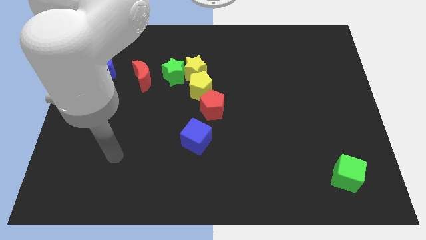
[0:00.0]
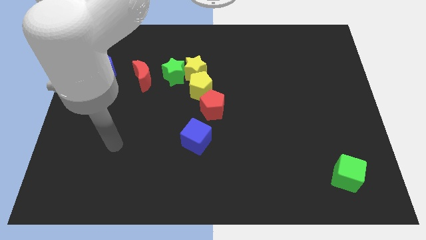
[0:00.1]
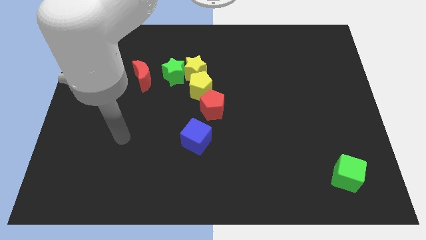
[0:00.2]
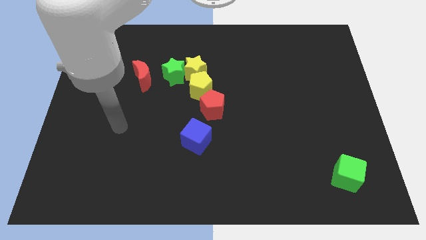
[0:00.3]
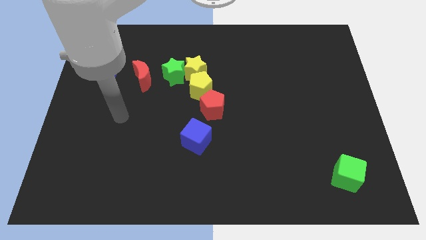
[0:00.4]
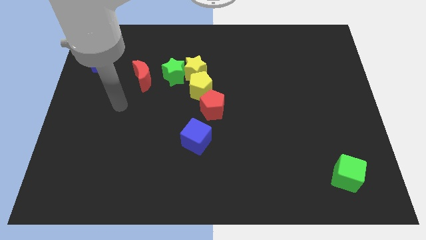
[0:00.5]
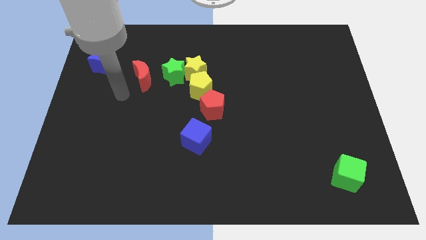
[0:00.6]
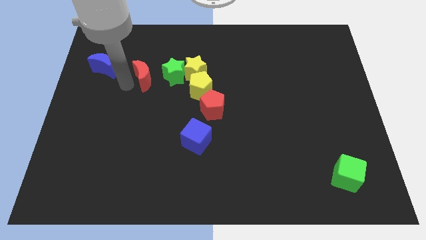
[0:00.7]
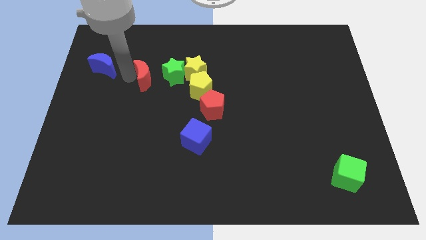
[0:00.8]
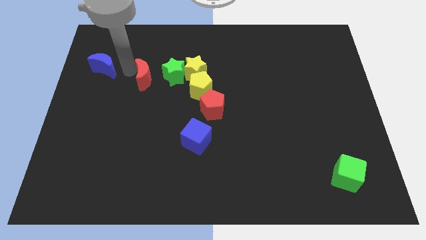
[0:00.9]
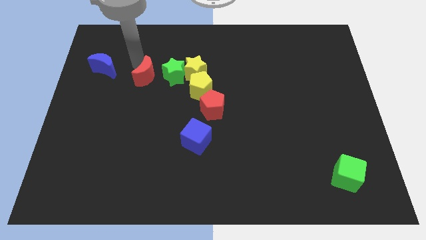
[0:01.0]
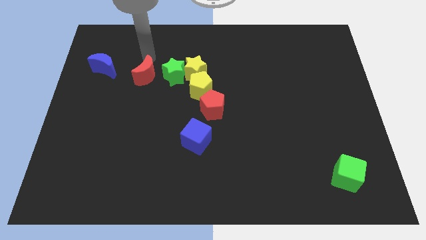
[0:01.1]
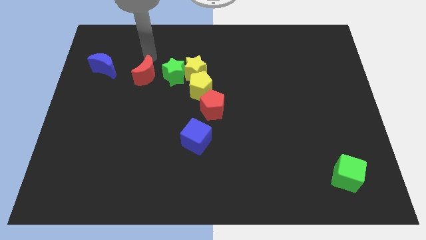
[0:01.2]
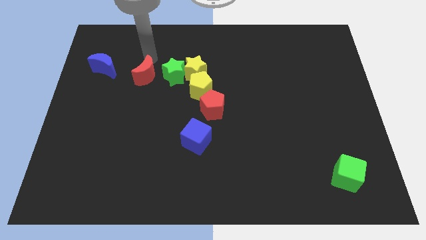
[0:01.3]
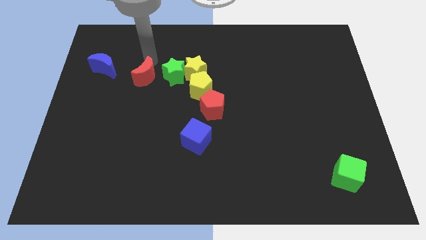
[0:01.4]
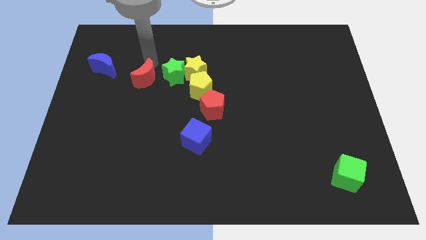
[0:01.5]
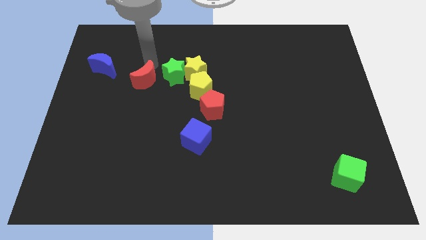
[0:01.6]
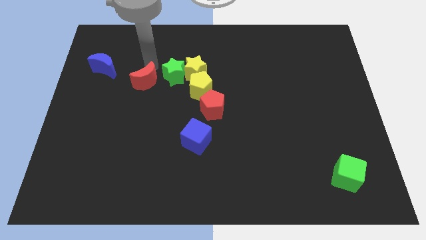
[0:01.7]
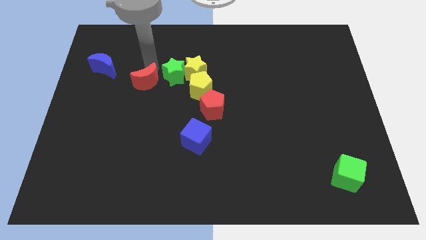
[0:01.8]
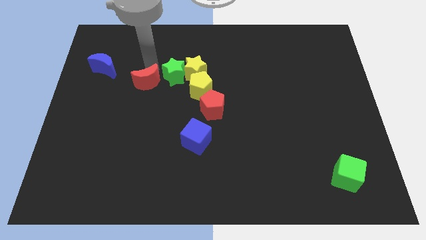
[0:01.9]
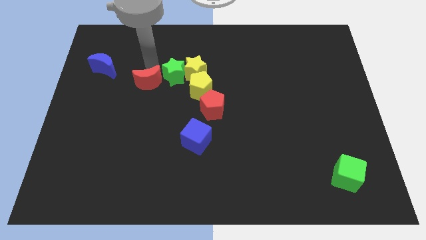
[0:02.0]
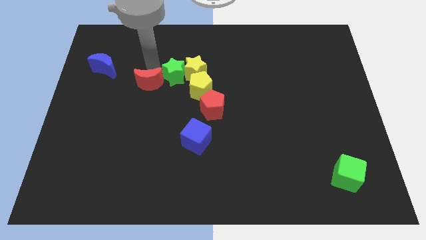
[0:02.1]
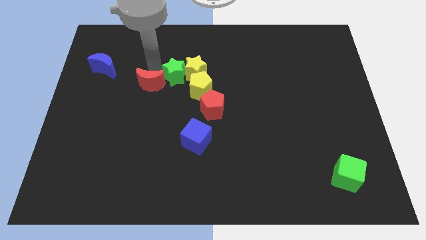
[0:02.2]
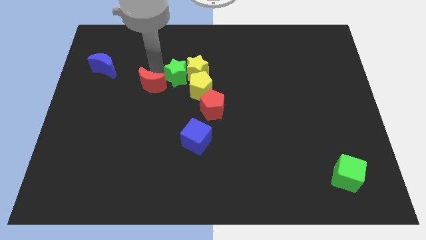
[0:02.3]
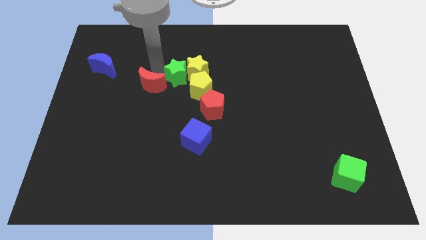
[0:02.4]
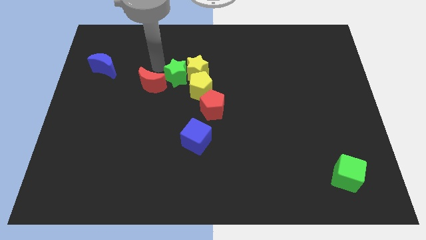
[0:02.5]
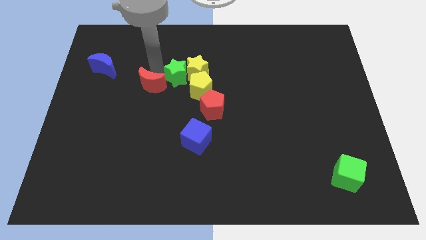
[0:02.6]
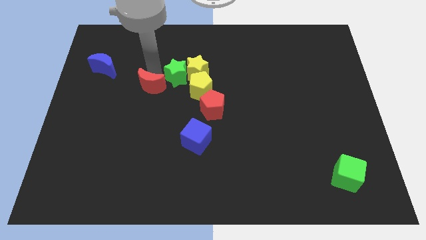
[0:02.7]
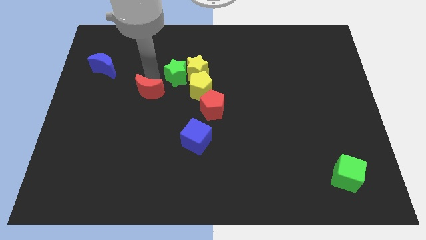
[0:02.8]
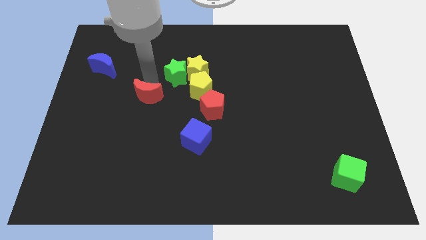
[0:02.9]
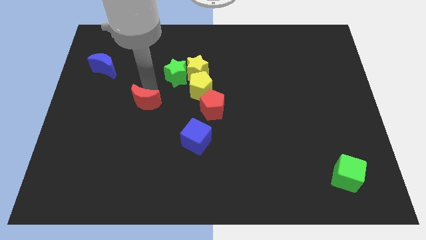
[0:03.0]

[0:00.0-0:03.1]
slightly push the red moon downwards

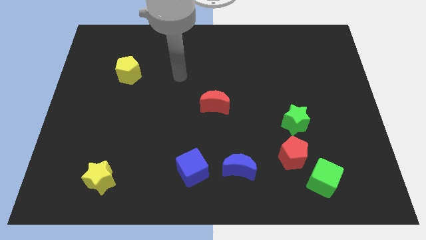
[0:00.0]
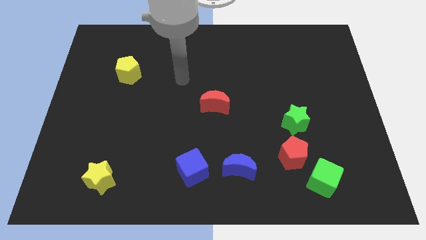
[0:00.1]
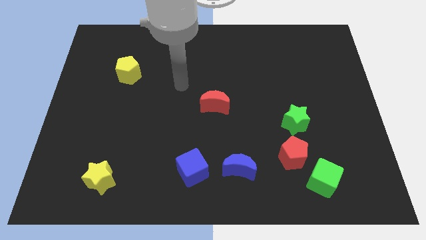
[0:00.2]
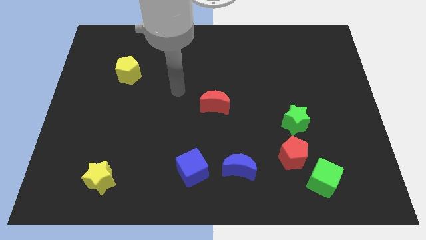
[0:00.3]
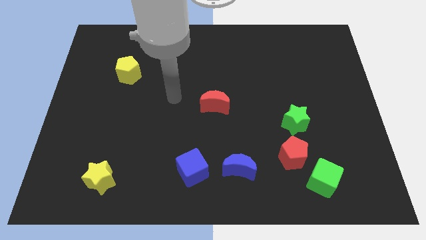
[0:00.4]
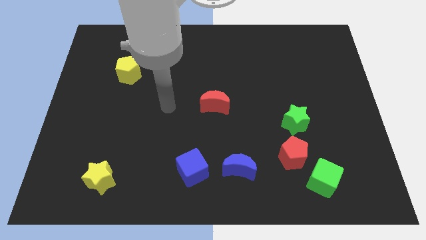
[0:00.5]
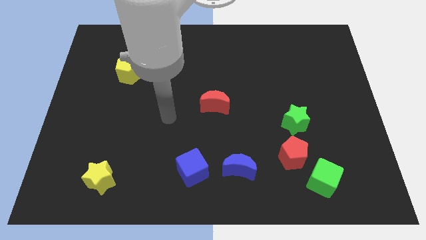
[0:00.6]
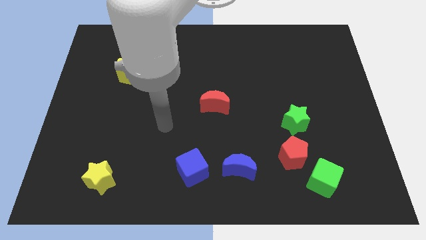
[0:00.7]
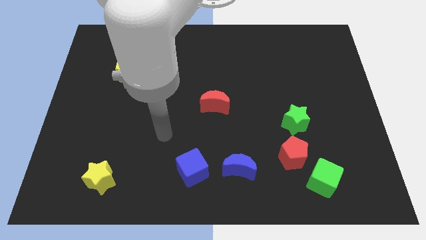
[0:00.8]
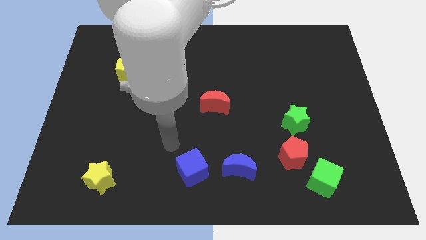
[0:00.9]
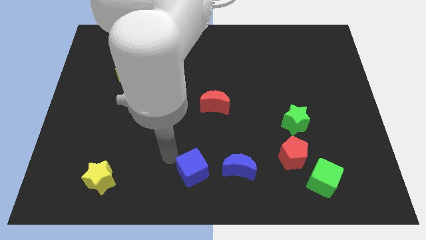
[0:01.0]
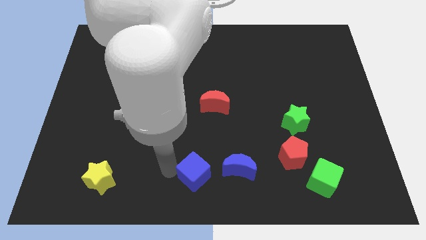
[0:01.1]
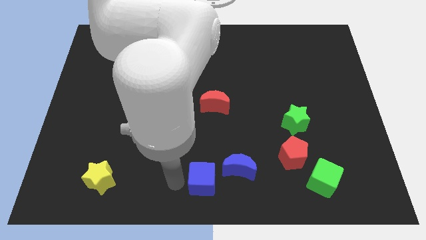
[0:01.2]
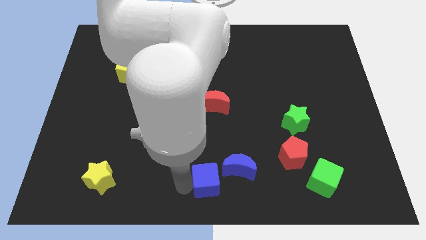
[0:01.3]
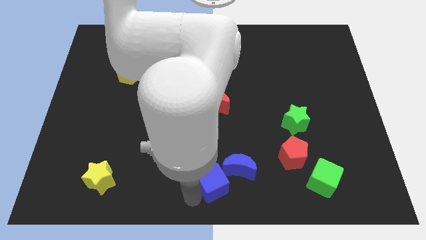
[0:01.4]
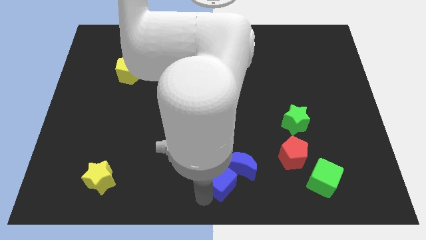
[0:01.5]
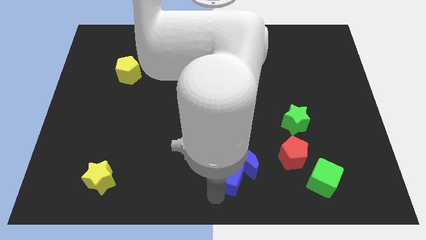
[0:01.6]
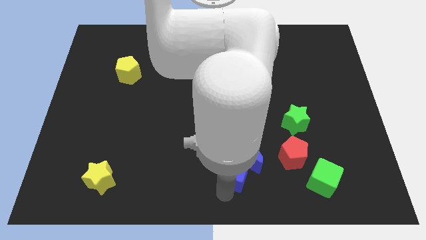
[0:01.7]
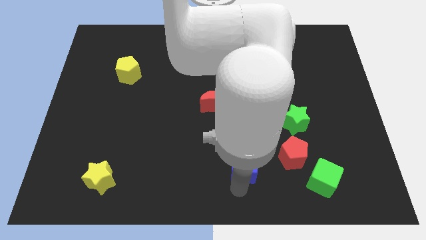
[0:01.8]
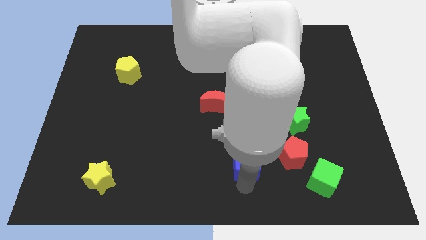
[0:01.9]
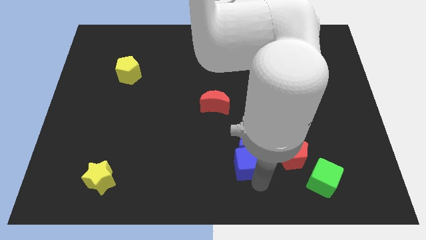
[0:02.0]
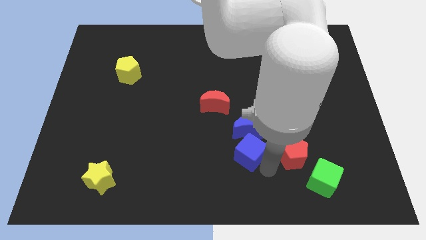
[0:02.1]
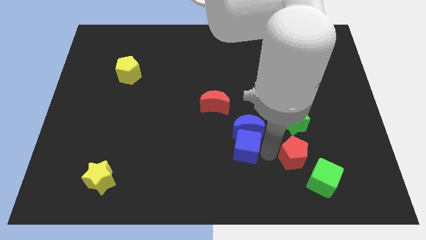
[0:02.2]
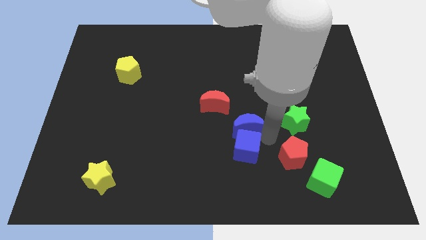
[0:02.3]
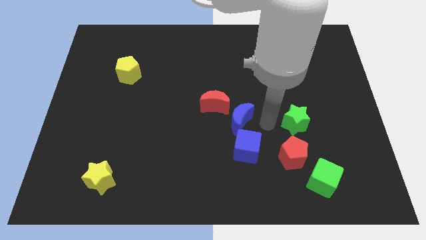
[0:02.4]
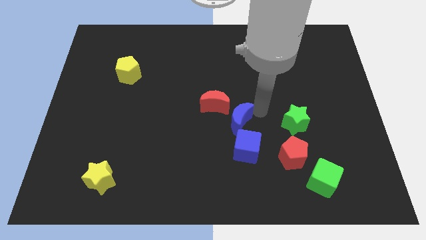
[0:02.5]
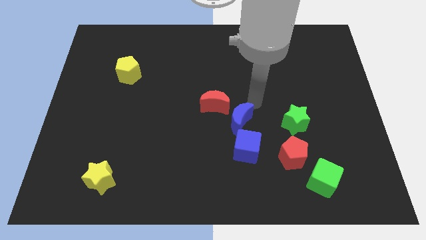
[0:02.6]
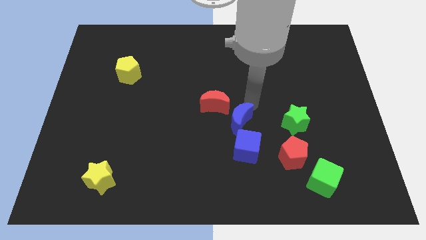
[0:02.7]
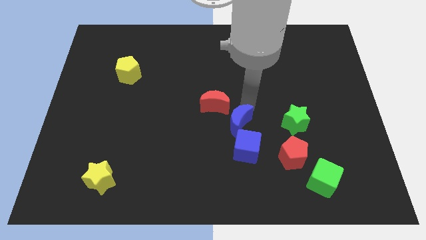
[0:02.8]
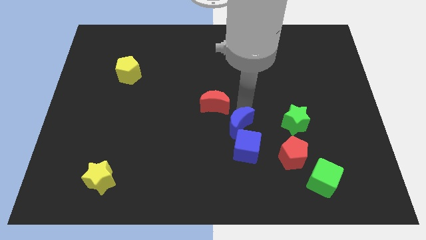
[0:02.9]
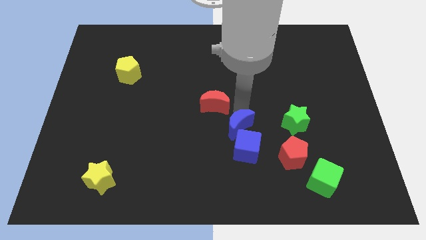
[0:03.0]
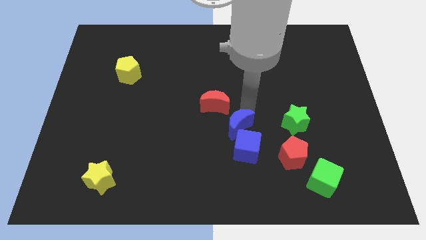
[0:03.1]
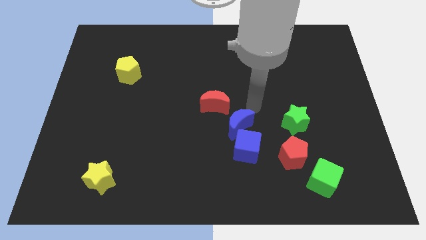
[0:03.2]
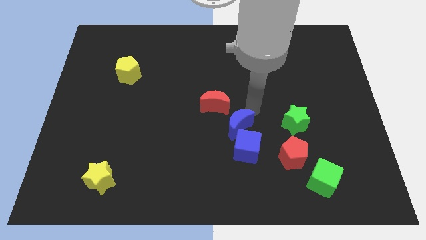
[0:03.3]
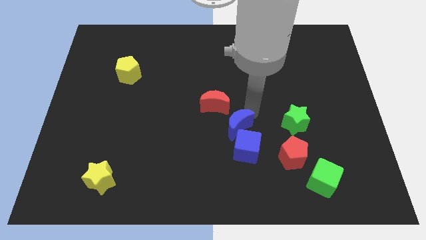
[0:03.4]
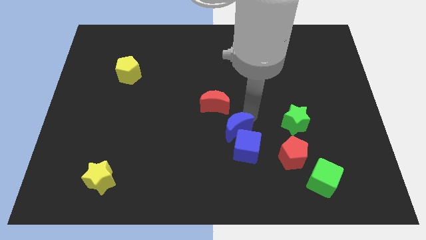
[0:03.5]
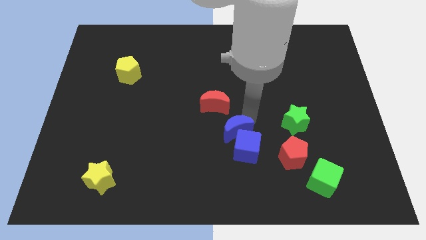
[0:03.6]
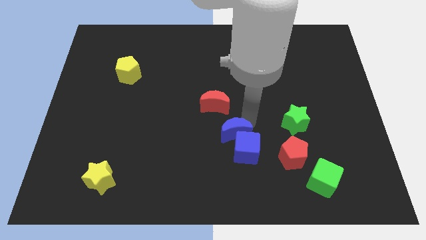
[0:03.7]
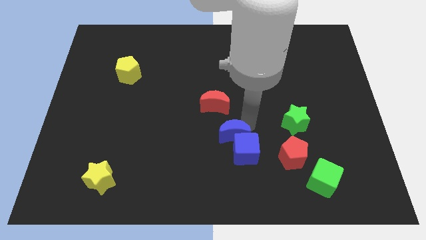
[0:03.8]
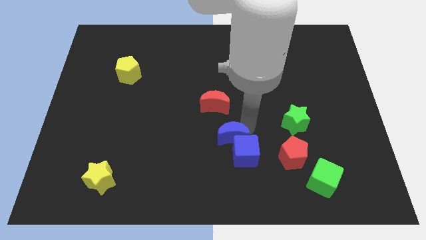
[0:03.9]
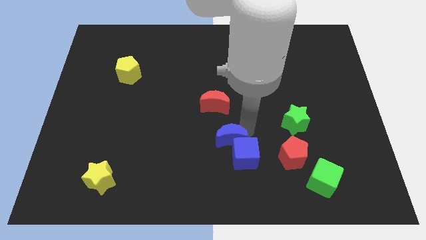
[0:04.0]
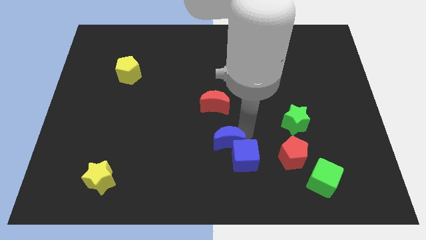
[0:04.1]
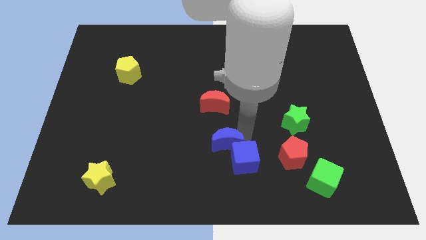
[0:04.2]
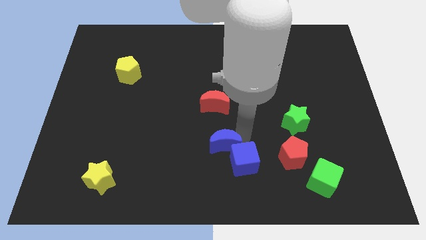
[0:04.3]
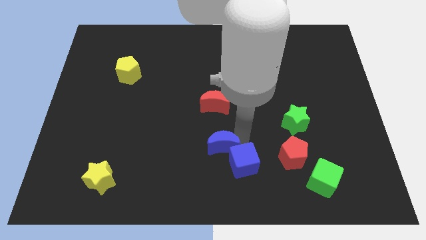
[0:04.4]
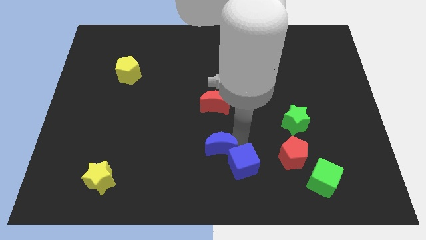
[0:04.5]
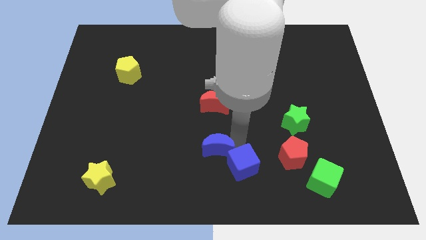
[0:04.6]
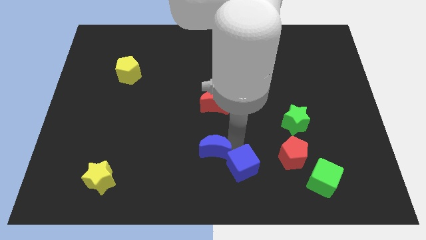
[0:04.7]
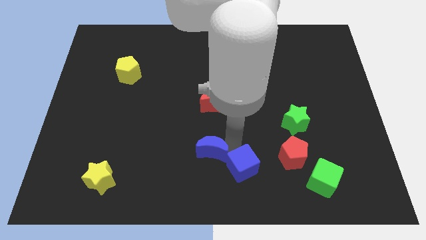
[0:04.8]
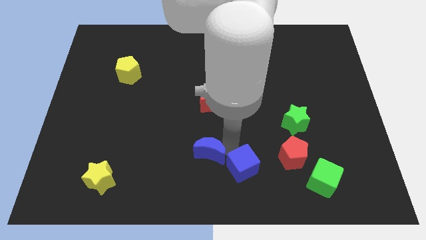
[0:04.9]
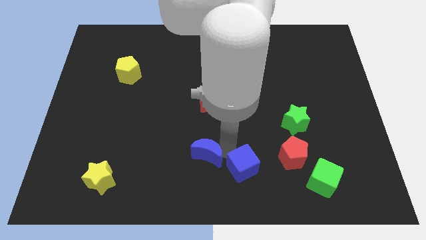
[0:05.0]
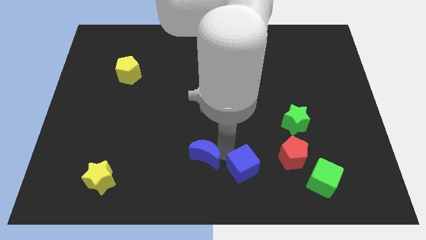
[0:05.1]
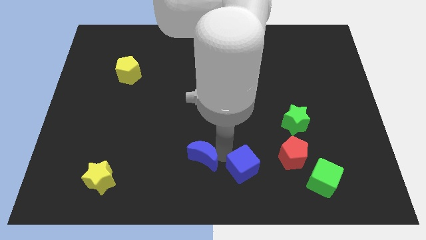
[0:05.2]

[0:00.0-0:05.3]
push the blue moon a bit to the left
